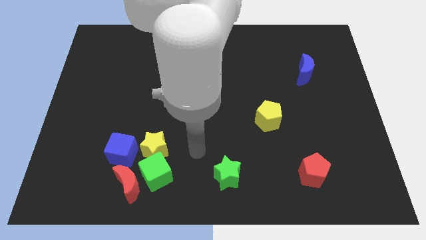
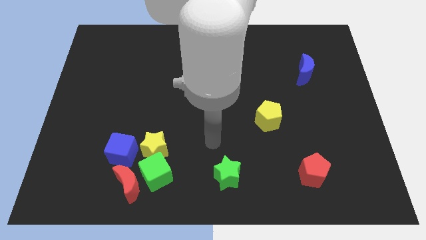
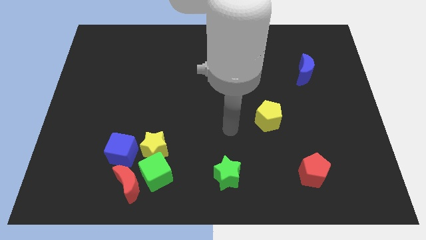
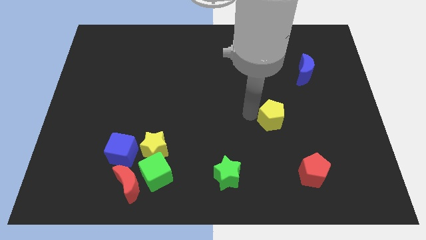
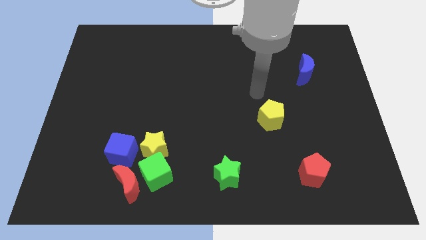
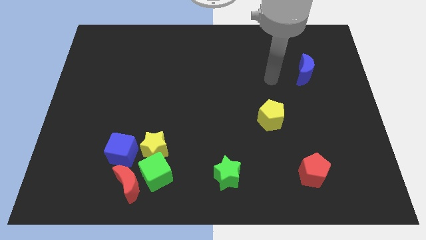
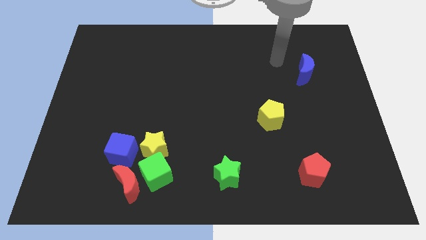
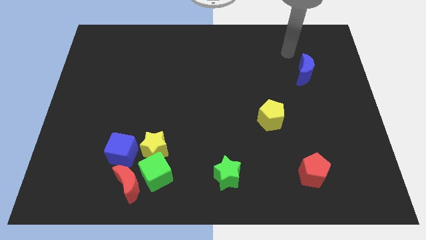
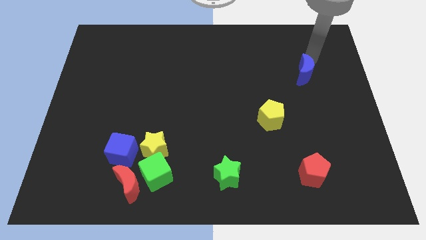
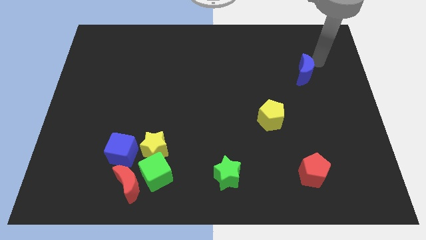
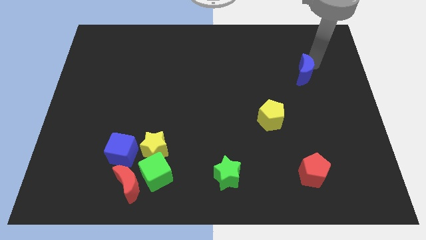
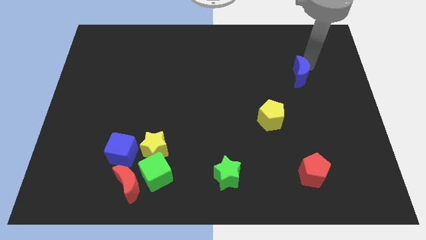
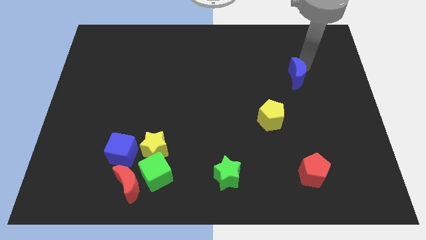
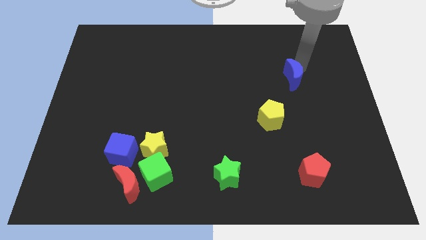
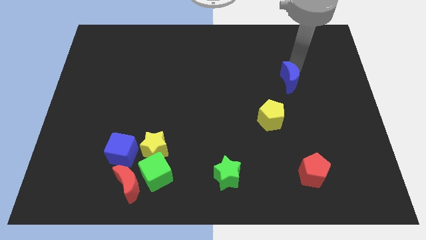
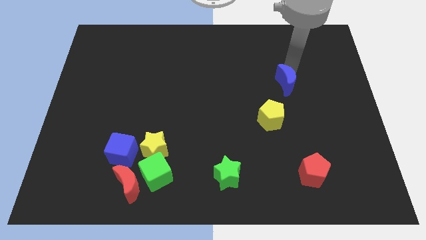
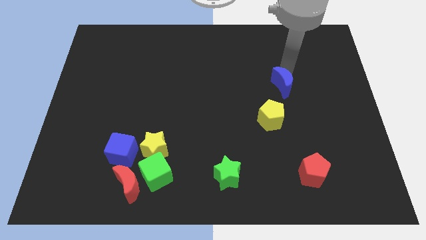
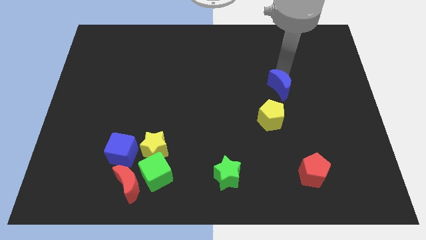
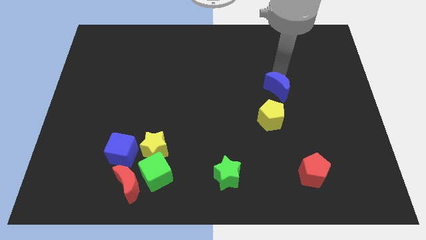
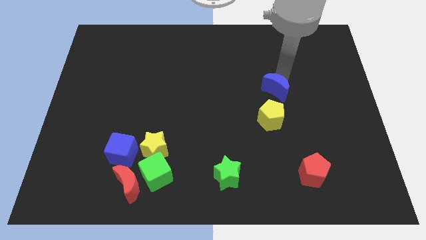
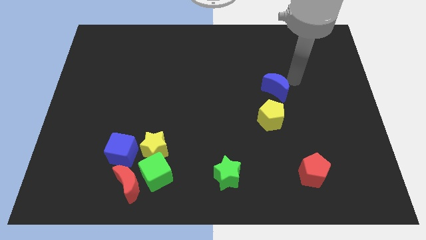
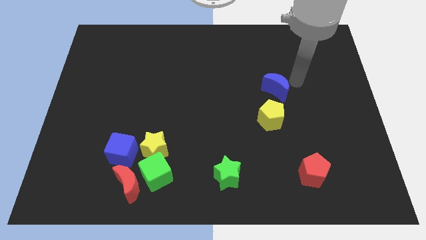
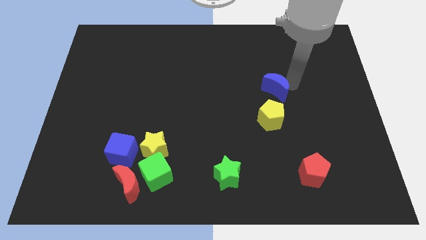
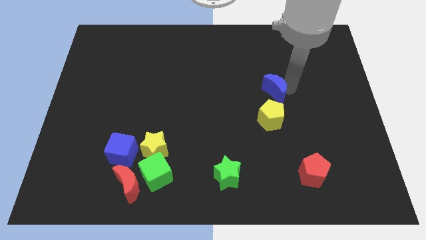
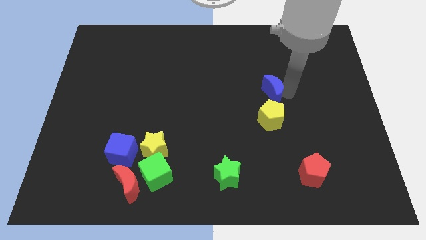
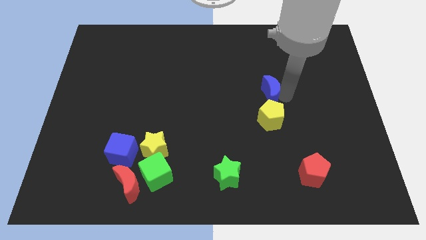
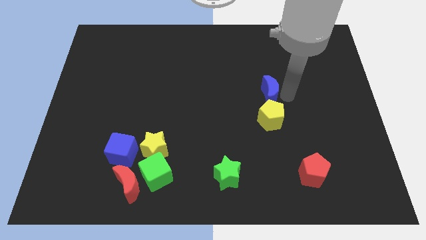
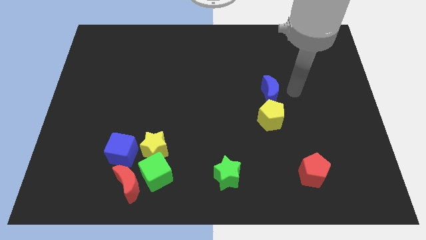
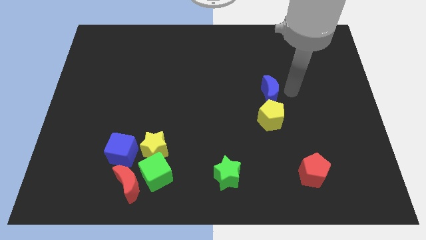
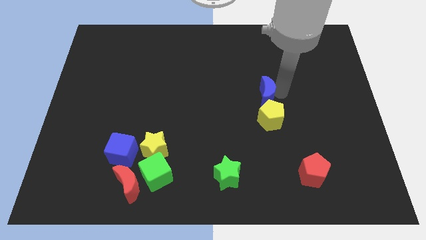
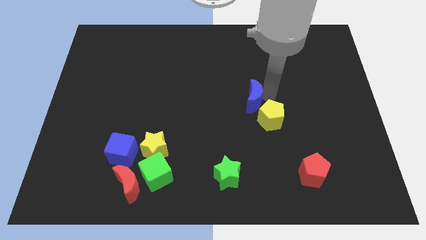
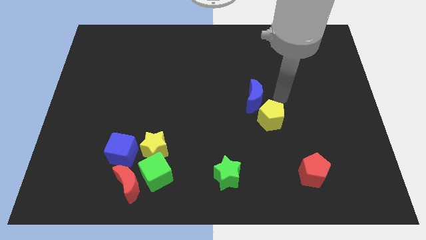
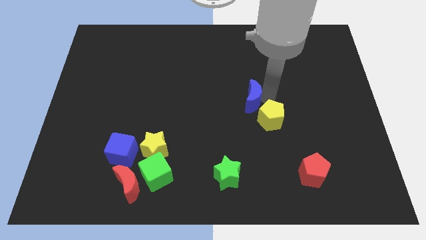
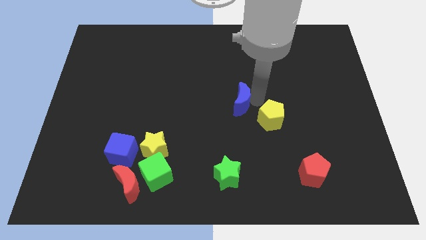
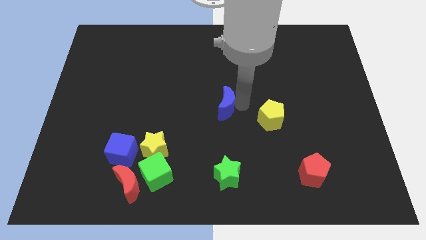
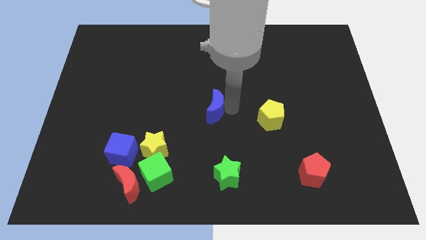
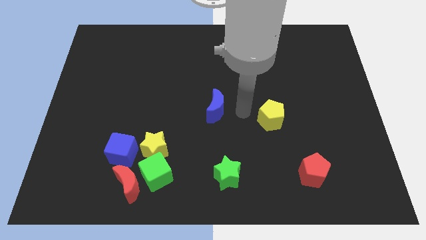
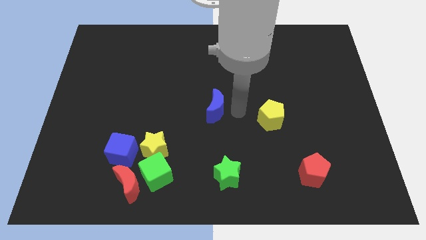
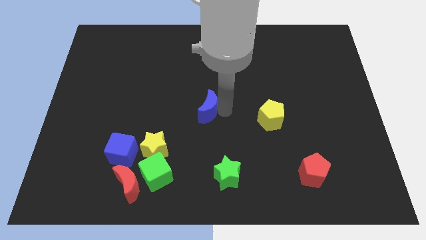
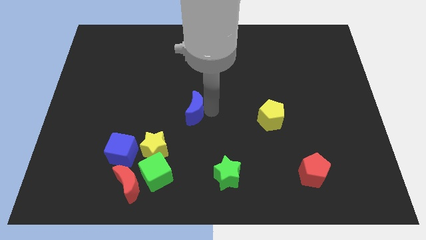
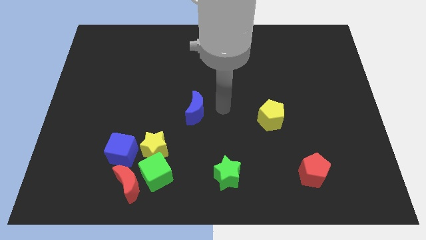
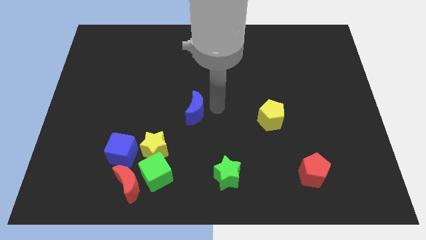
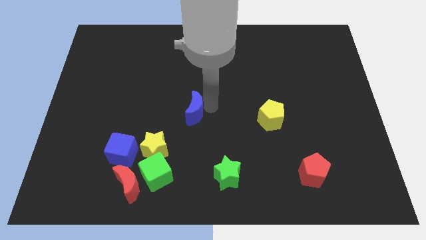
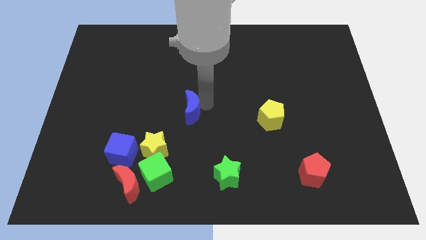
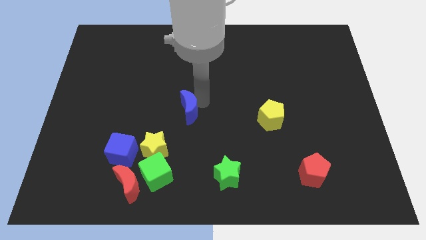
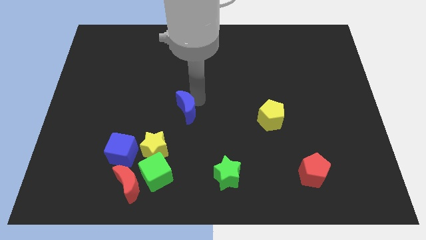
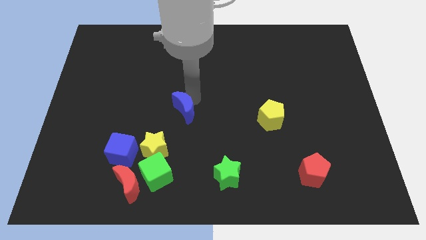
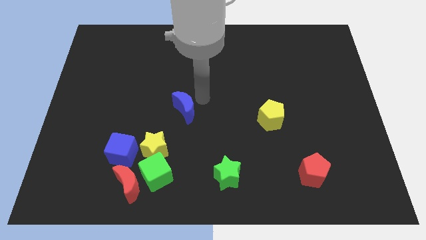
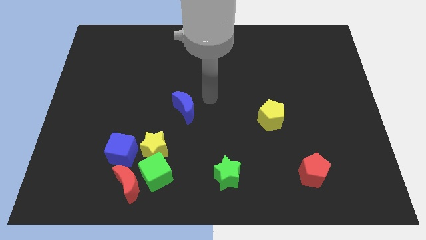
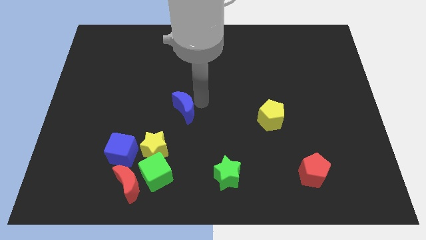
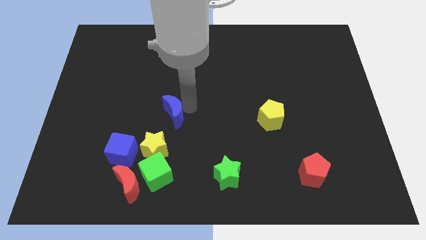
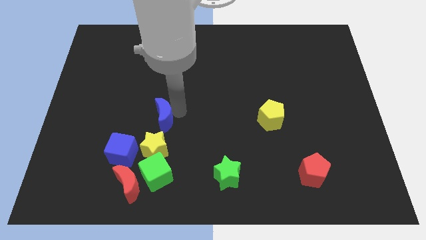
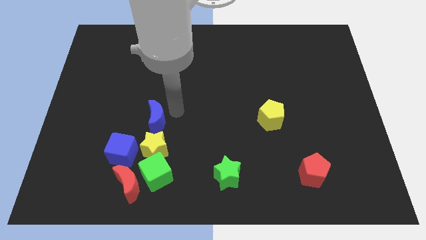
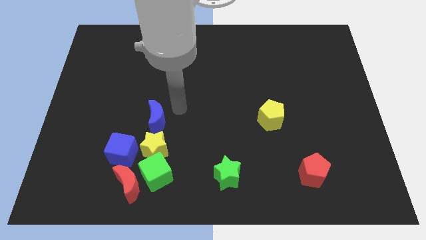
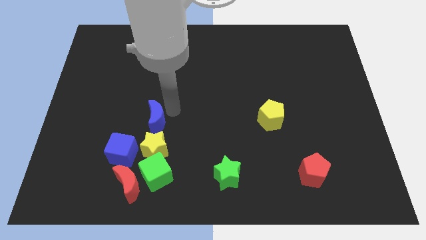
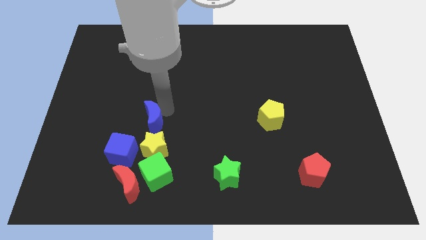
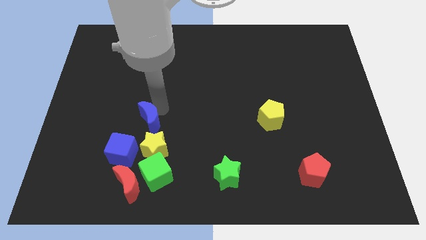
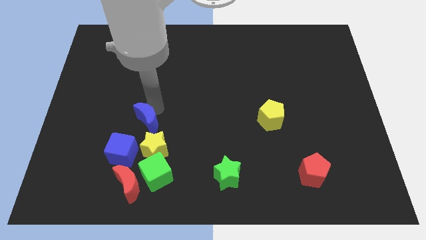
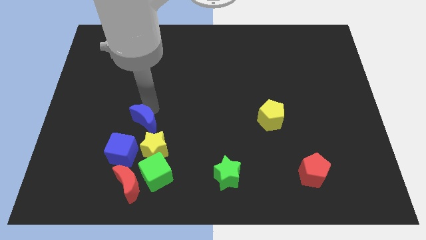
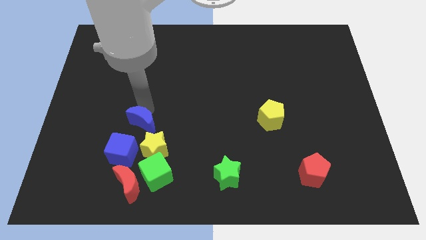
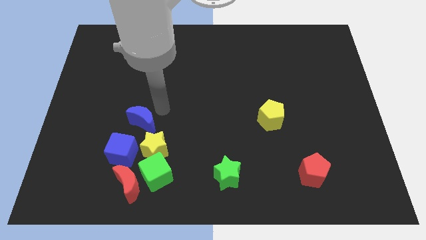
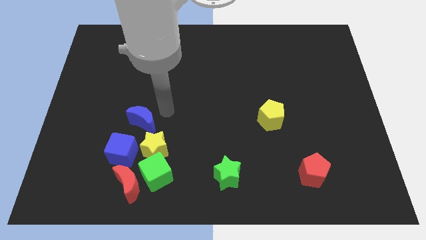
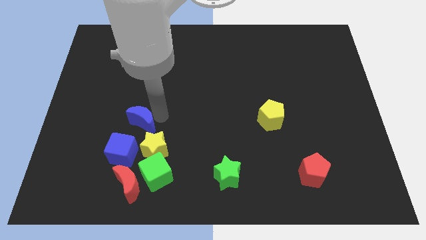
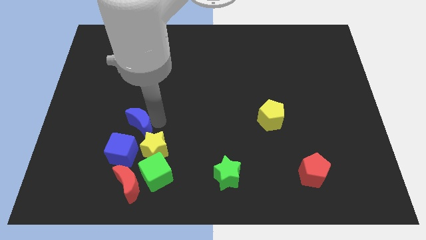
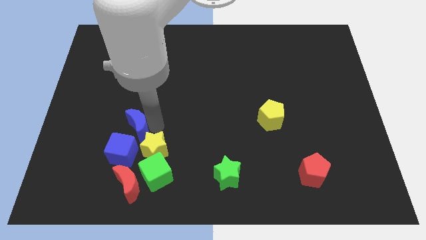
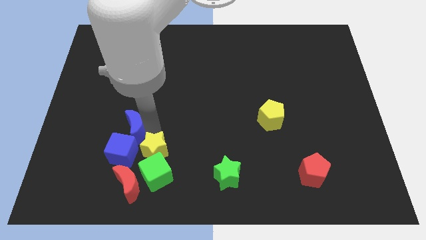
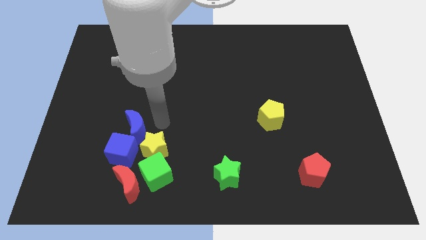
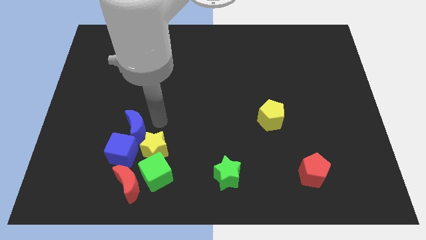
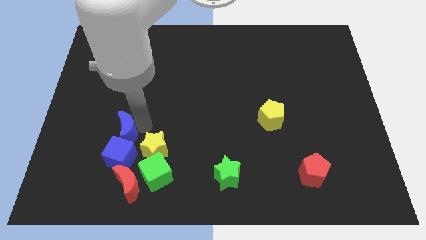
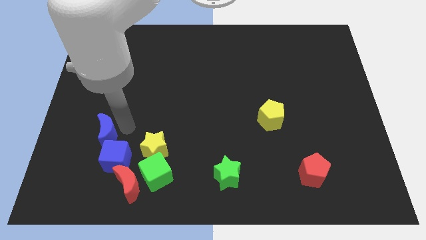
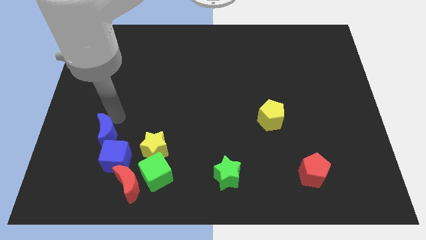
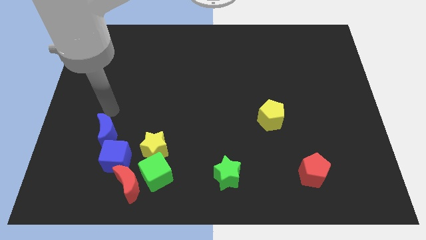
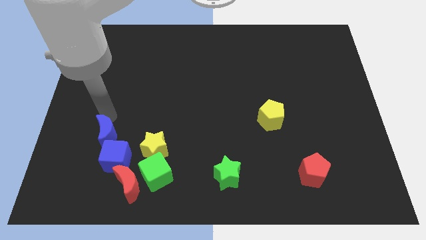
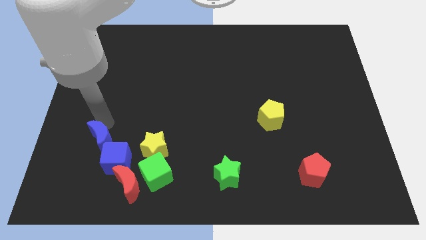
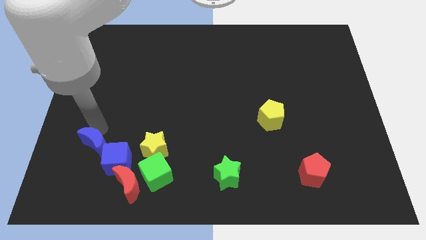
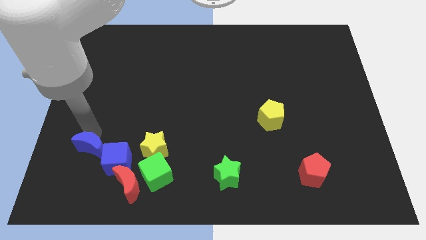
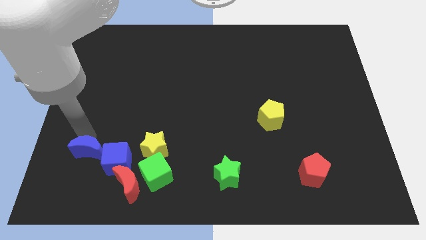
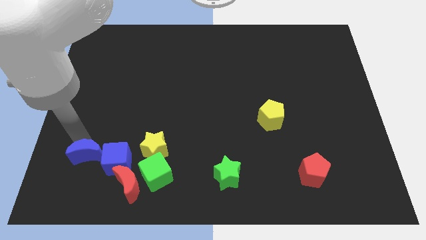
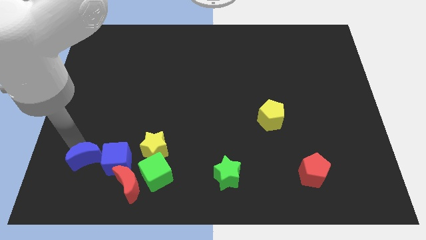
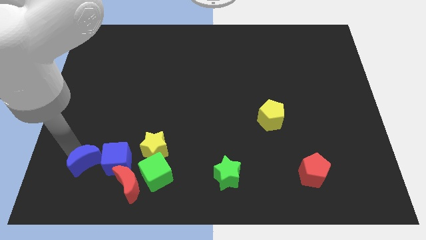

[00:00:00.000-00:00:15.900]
push the blue moon to the left of the green cube
